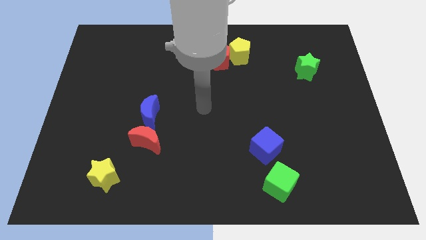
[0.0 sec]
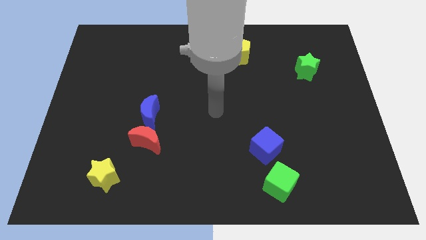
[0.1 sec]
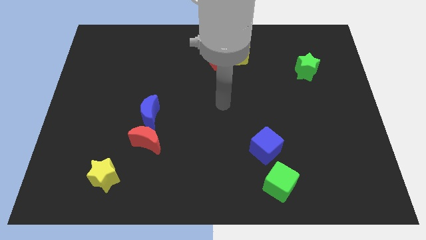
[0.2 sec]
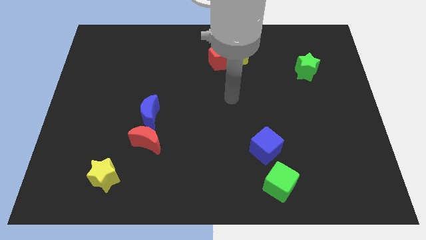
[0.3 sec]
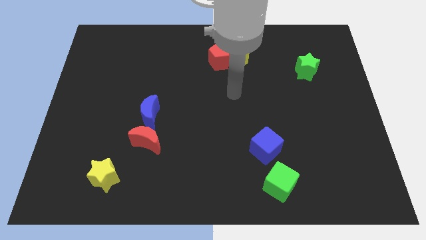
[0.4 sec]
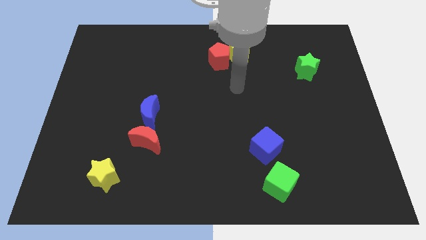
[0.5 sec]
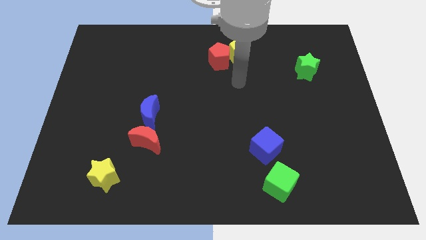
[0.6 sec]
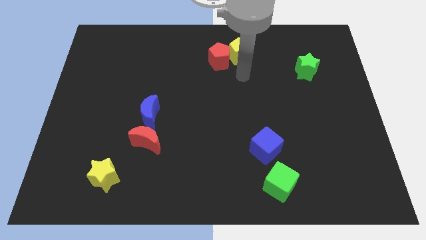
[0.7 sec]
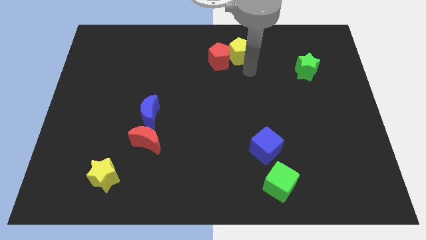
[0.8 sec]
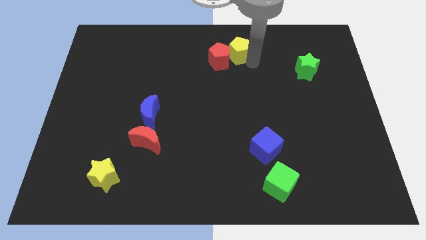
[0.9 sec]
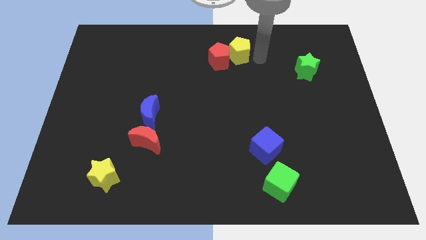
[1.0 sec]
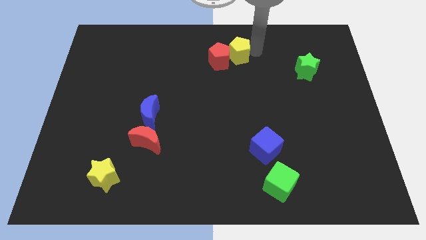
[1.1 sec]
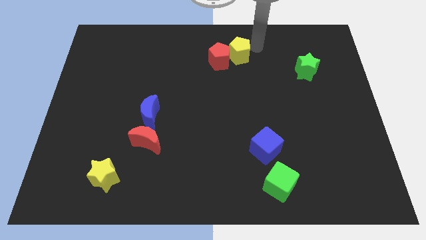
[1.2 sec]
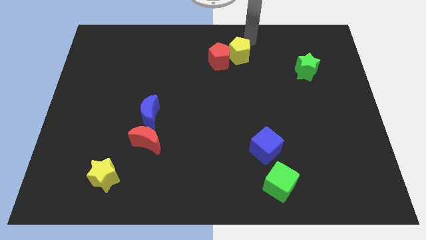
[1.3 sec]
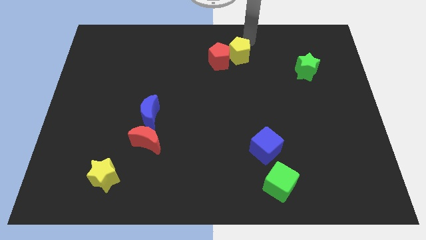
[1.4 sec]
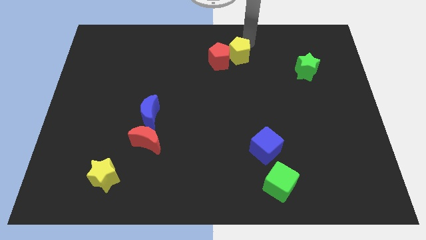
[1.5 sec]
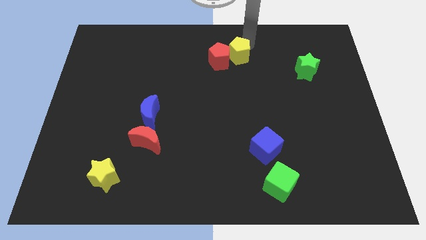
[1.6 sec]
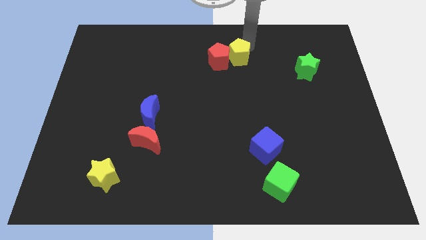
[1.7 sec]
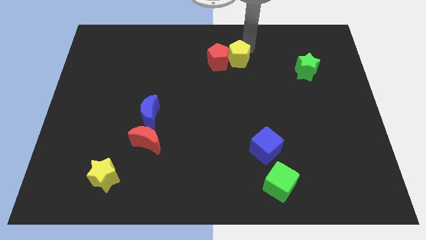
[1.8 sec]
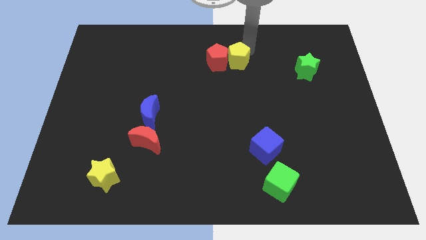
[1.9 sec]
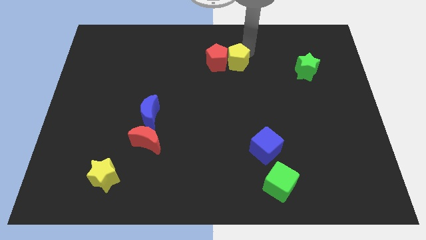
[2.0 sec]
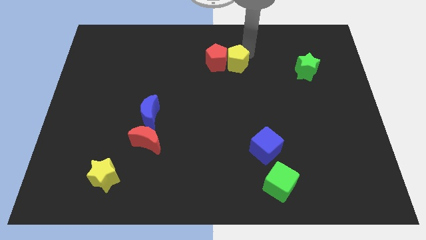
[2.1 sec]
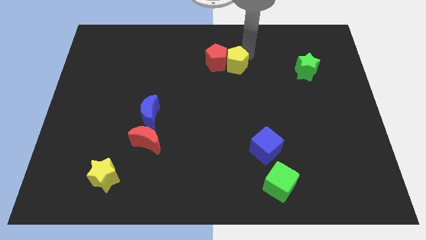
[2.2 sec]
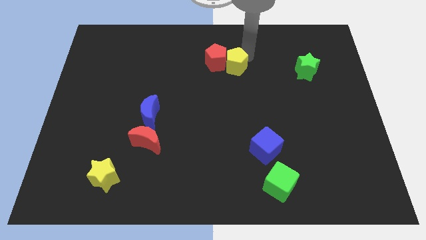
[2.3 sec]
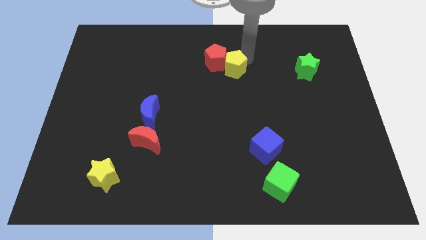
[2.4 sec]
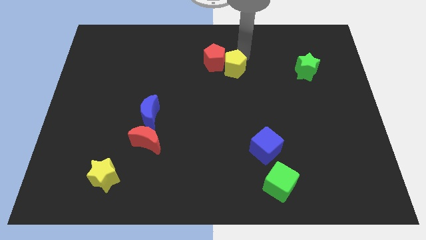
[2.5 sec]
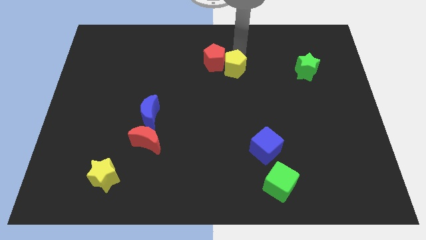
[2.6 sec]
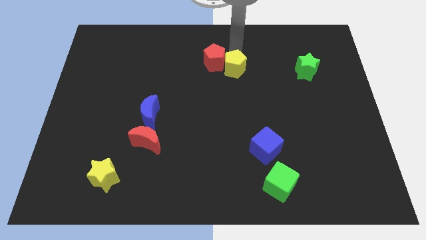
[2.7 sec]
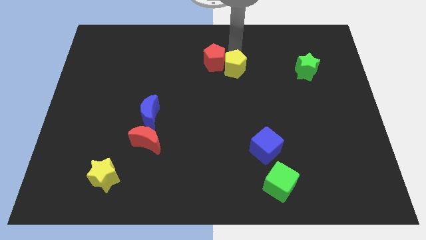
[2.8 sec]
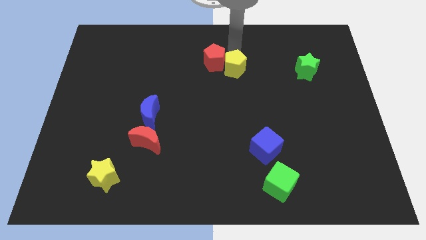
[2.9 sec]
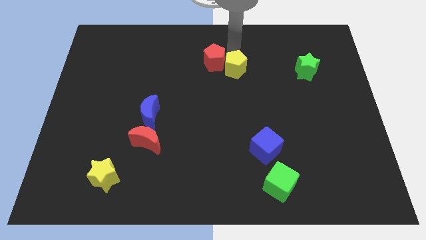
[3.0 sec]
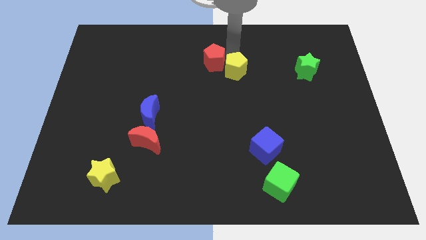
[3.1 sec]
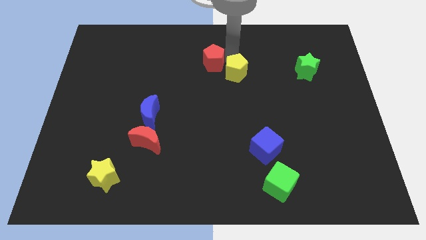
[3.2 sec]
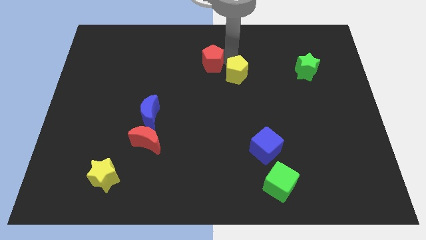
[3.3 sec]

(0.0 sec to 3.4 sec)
slide the yellow pentagon down a bit

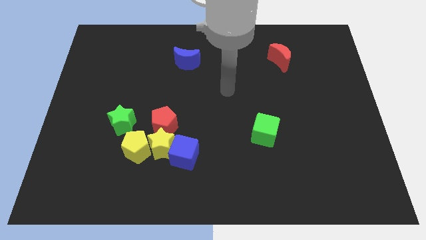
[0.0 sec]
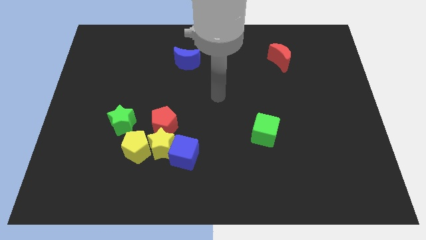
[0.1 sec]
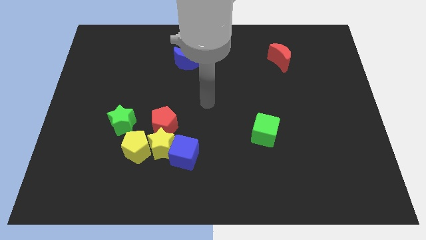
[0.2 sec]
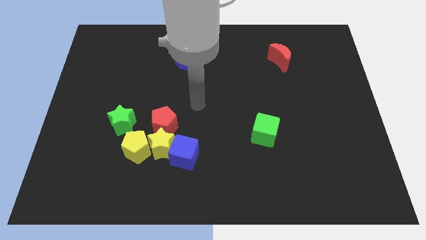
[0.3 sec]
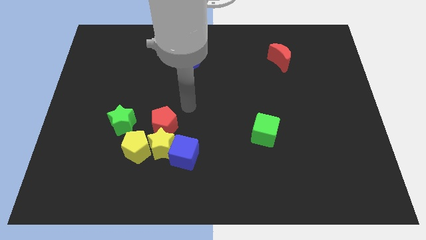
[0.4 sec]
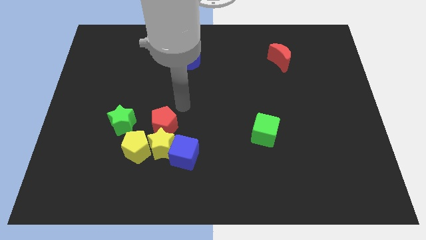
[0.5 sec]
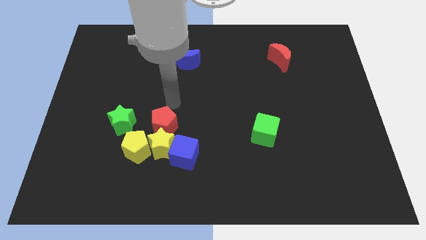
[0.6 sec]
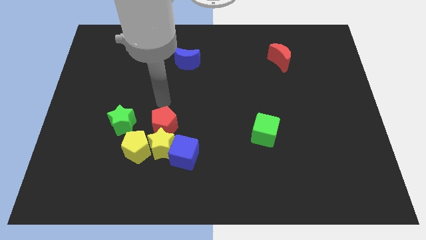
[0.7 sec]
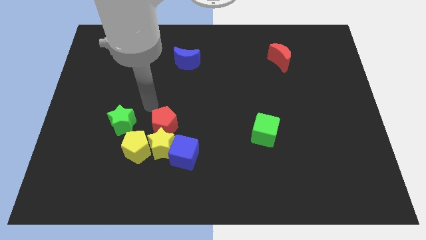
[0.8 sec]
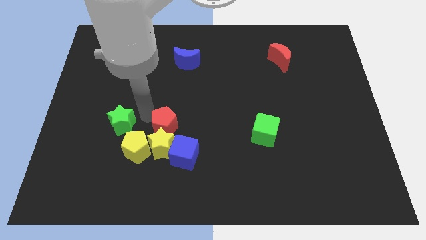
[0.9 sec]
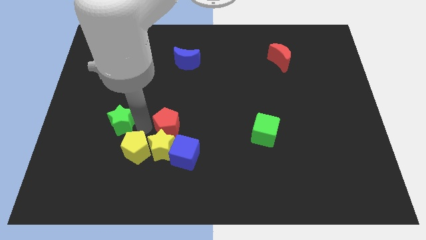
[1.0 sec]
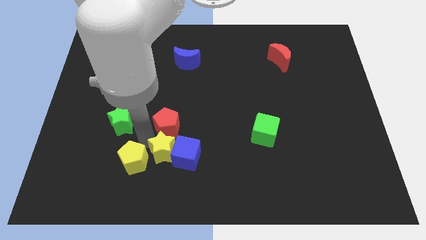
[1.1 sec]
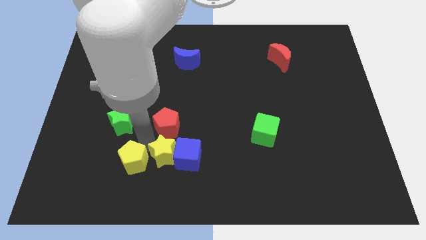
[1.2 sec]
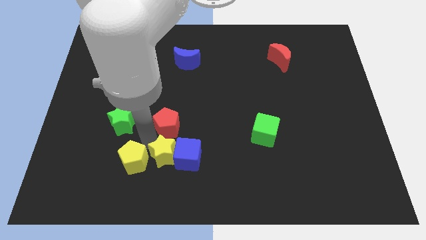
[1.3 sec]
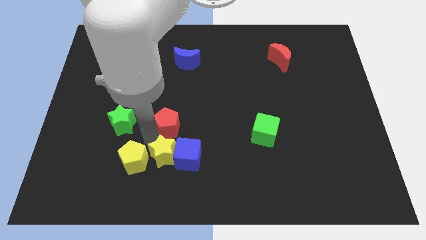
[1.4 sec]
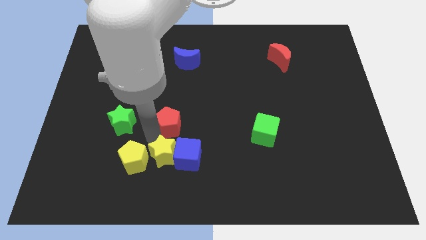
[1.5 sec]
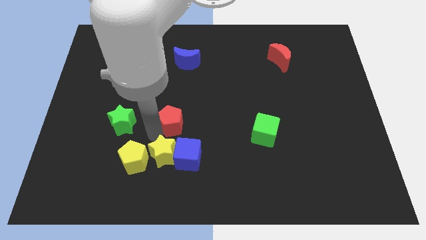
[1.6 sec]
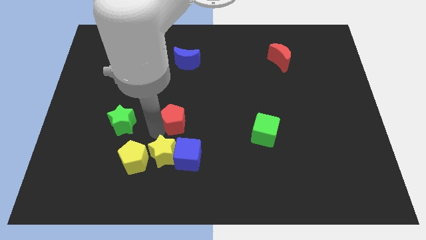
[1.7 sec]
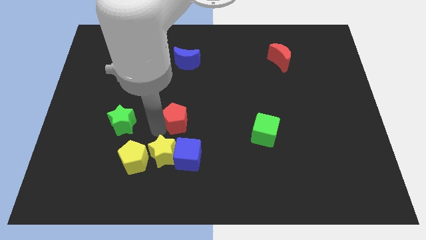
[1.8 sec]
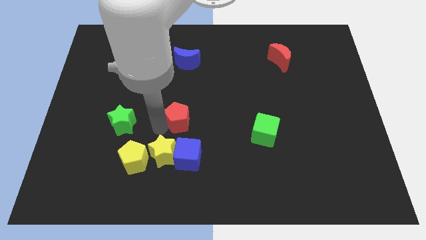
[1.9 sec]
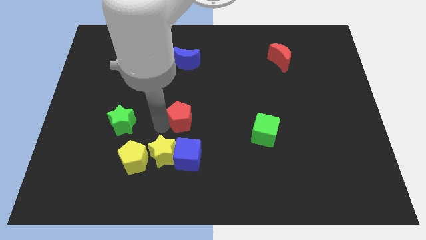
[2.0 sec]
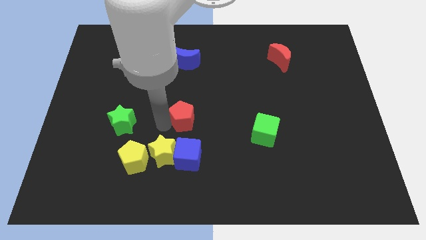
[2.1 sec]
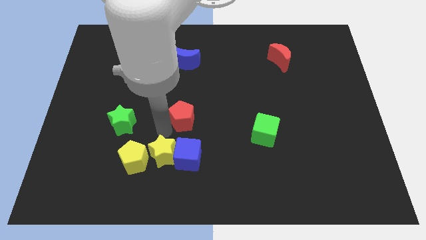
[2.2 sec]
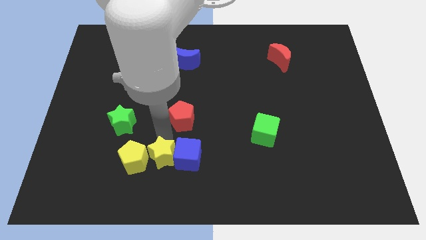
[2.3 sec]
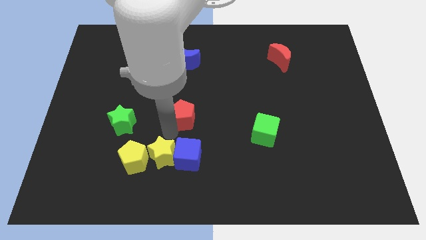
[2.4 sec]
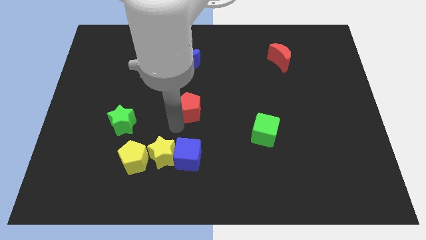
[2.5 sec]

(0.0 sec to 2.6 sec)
slide the red pentagon up and to the right diagonally somewhat

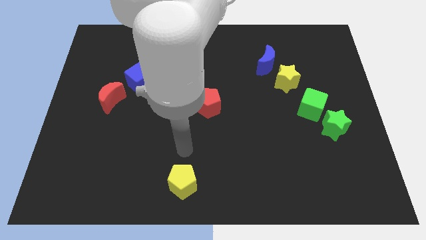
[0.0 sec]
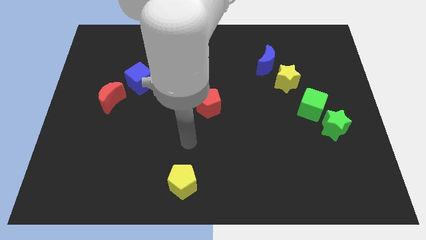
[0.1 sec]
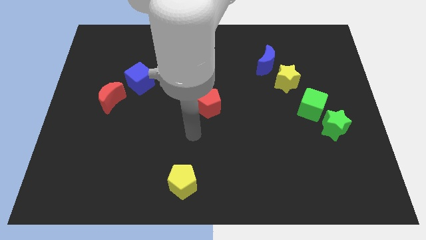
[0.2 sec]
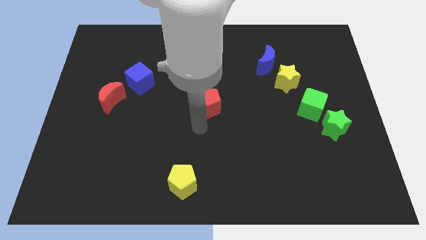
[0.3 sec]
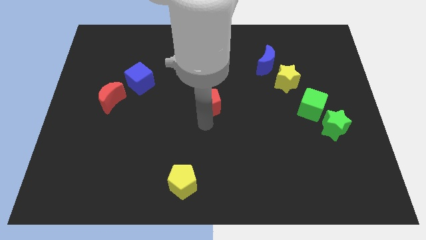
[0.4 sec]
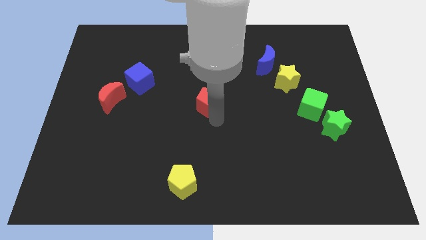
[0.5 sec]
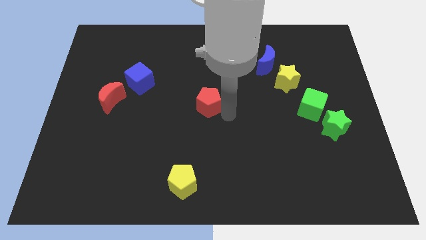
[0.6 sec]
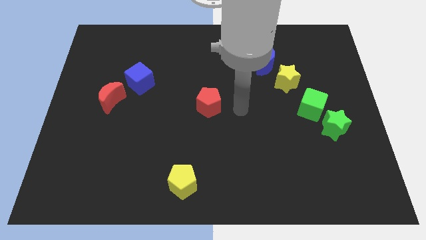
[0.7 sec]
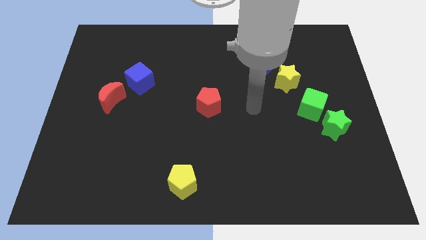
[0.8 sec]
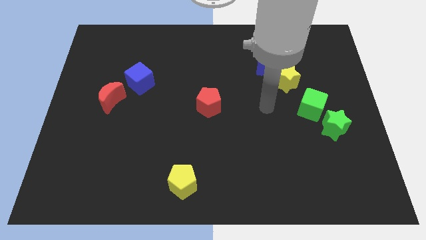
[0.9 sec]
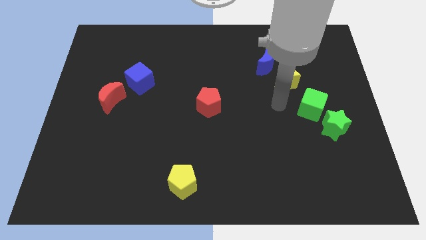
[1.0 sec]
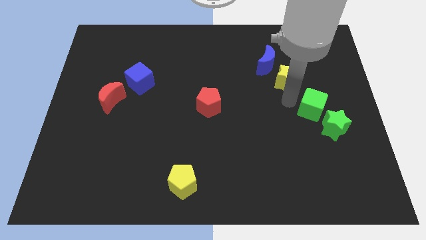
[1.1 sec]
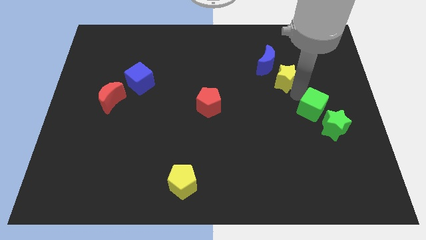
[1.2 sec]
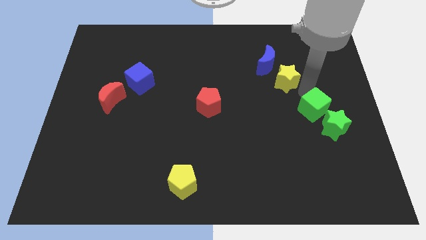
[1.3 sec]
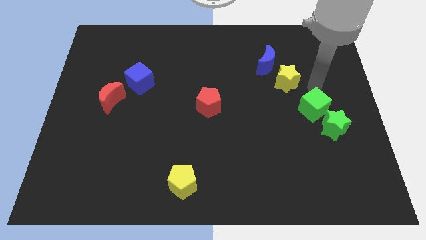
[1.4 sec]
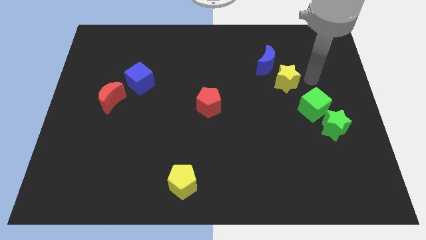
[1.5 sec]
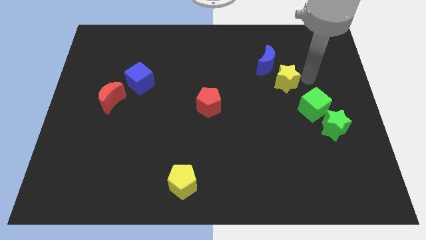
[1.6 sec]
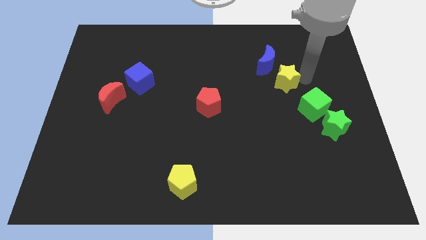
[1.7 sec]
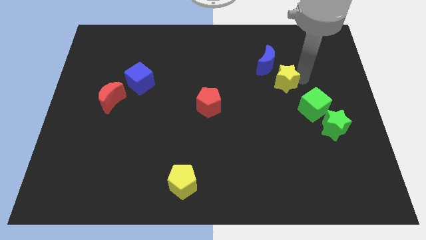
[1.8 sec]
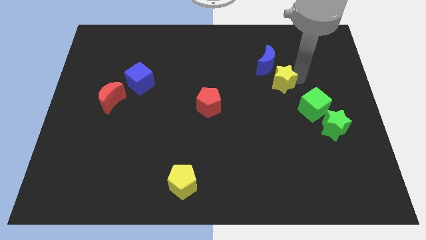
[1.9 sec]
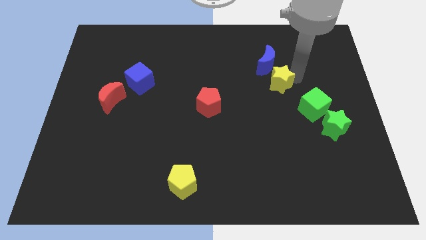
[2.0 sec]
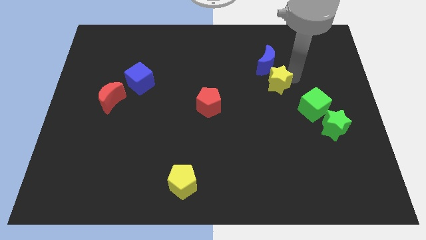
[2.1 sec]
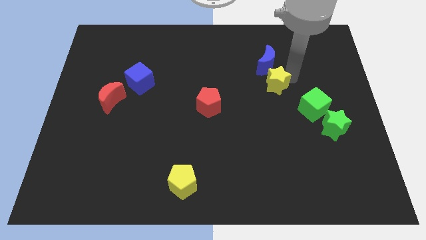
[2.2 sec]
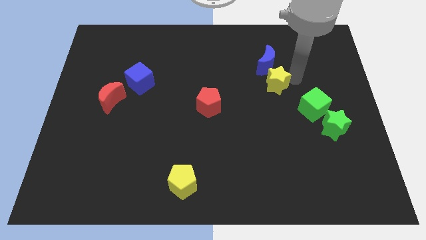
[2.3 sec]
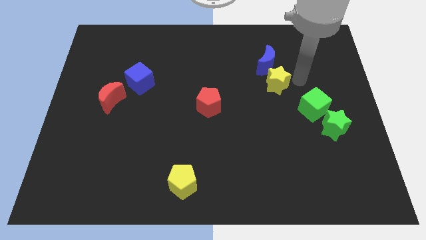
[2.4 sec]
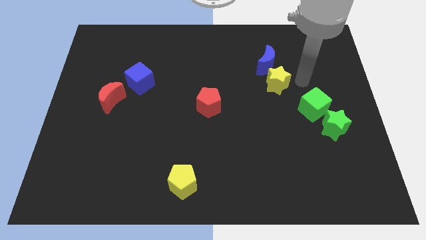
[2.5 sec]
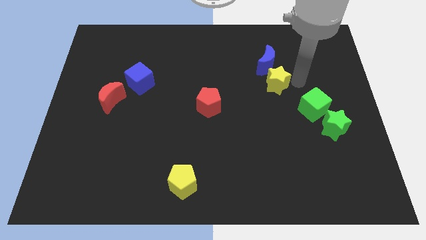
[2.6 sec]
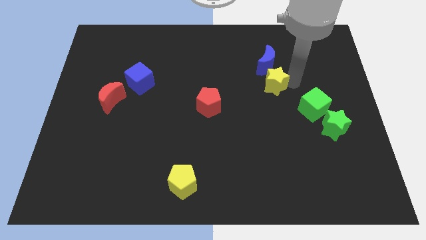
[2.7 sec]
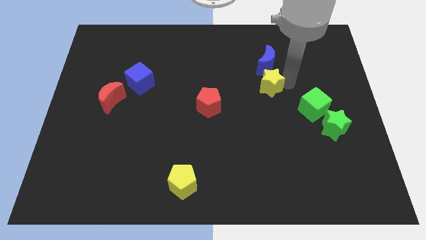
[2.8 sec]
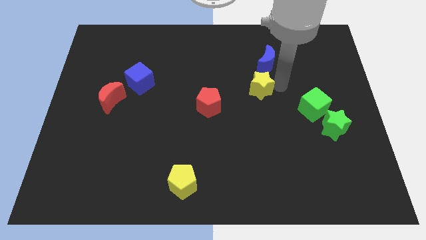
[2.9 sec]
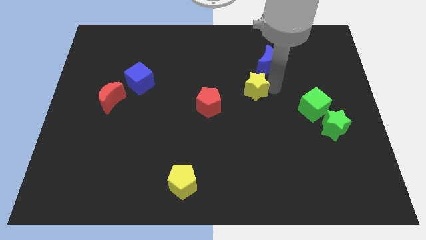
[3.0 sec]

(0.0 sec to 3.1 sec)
slide the yellow star somewhat to the left
